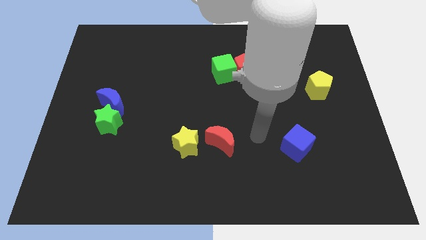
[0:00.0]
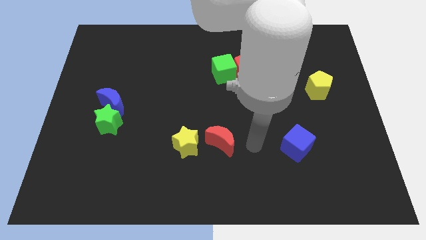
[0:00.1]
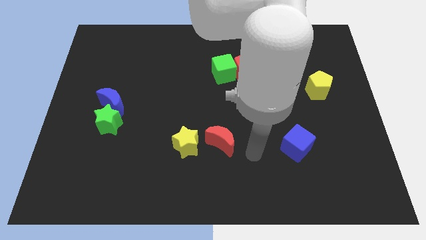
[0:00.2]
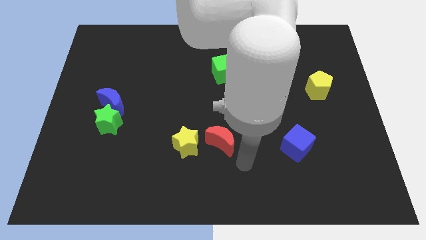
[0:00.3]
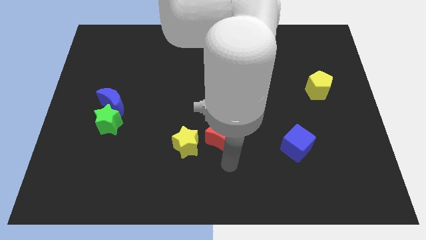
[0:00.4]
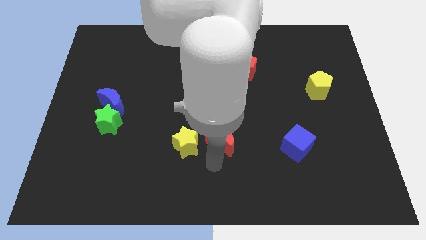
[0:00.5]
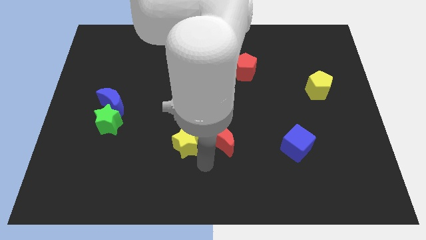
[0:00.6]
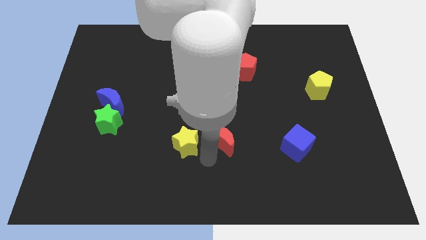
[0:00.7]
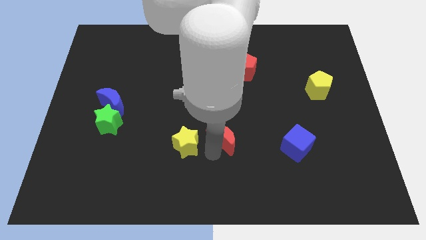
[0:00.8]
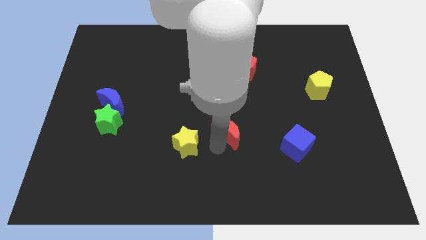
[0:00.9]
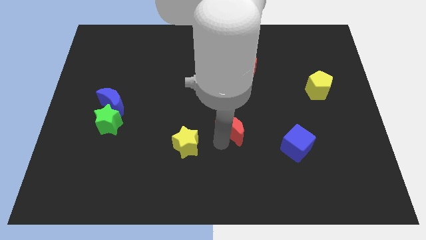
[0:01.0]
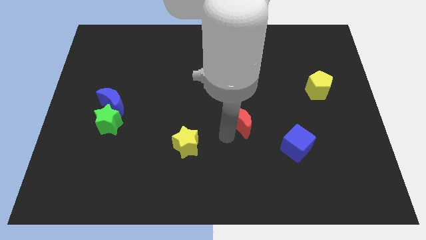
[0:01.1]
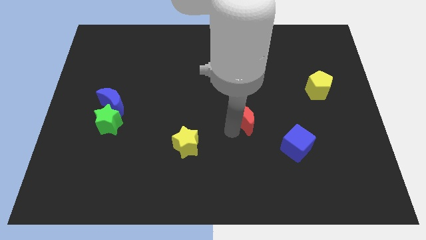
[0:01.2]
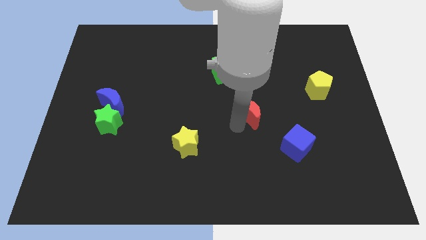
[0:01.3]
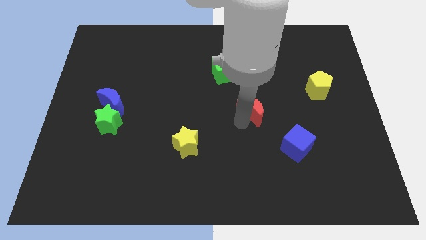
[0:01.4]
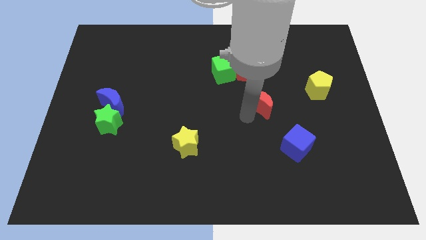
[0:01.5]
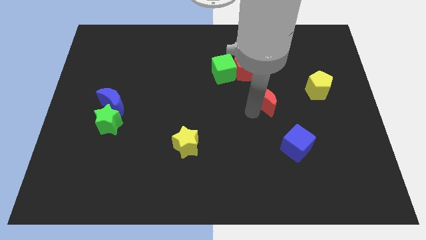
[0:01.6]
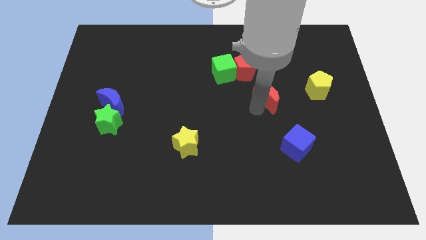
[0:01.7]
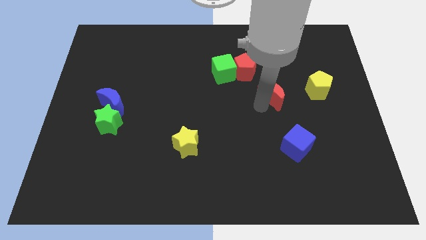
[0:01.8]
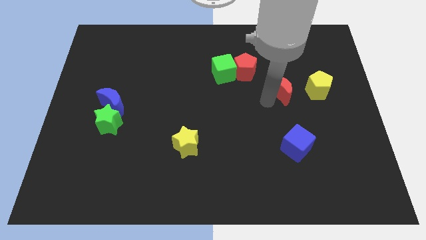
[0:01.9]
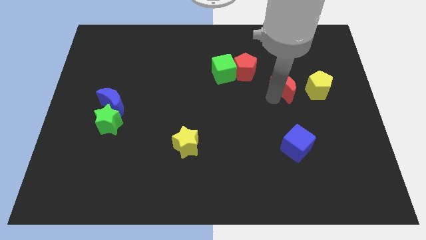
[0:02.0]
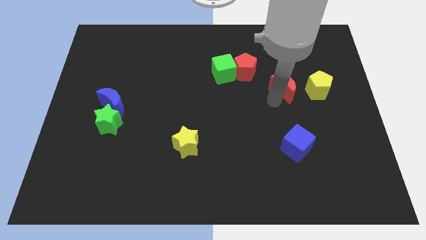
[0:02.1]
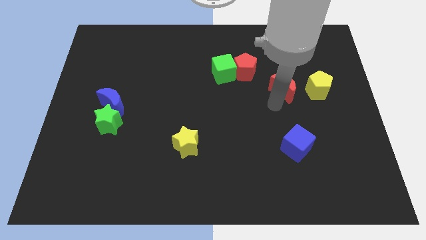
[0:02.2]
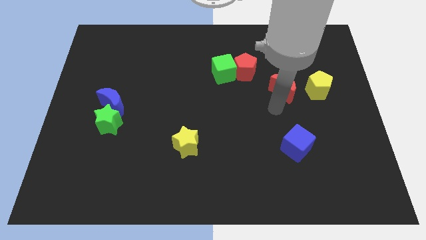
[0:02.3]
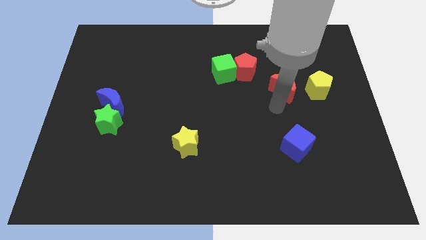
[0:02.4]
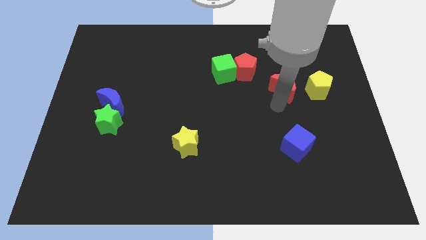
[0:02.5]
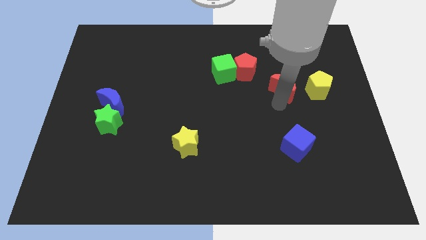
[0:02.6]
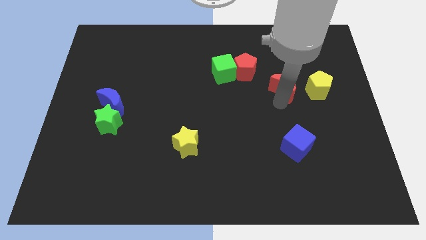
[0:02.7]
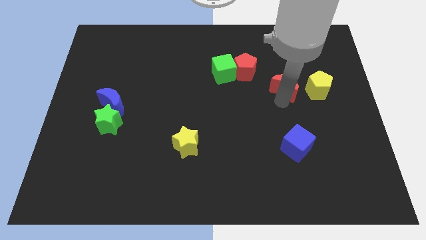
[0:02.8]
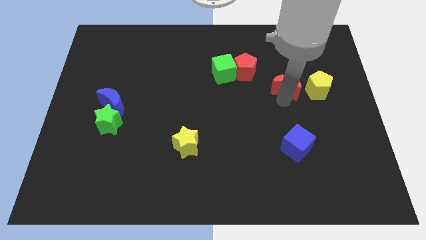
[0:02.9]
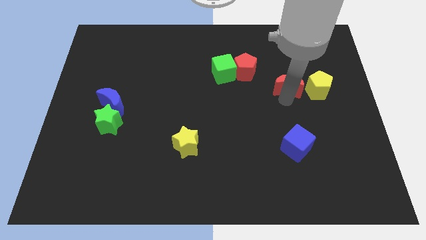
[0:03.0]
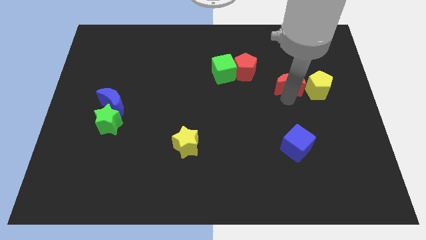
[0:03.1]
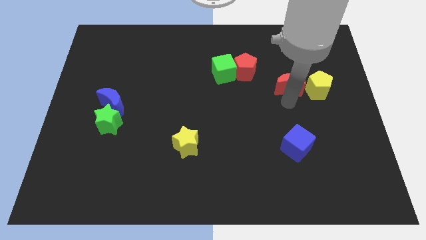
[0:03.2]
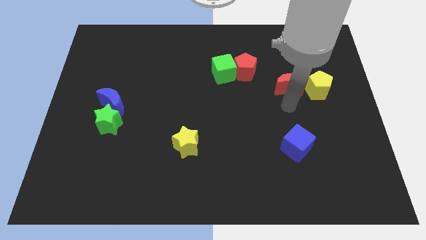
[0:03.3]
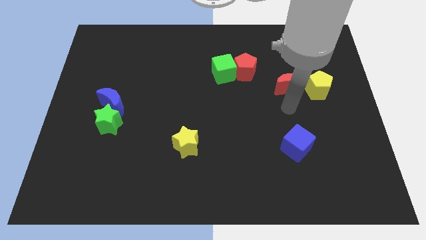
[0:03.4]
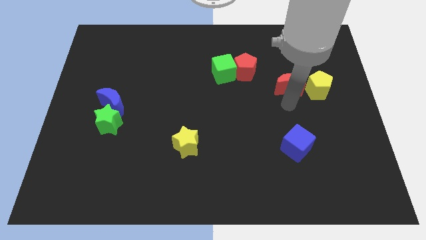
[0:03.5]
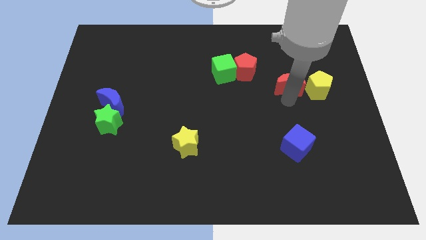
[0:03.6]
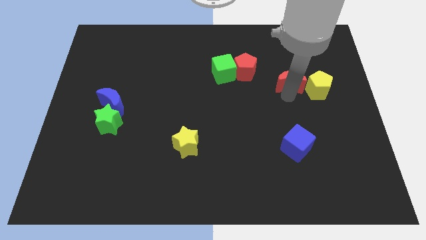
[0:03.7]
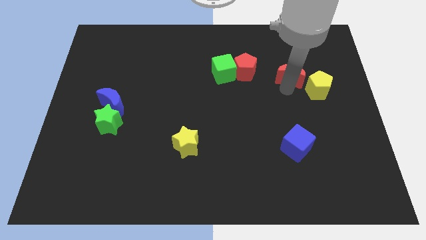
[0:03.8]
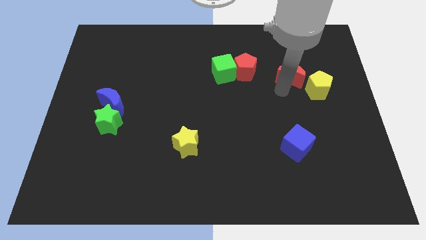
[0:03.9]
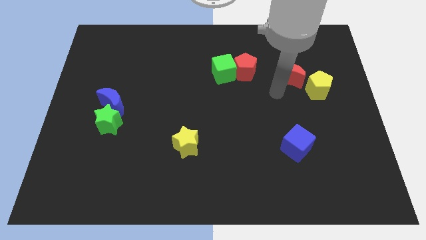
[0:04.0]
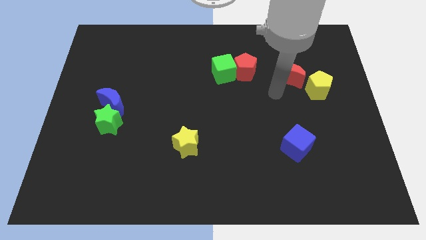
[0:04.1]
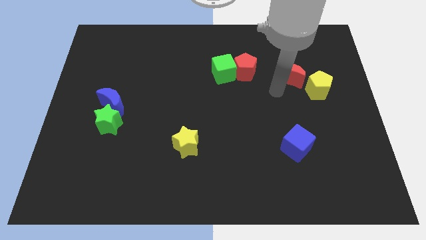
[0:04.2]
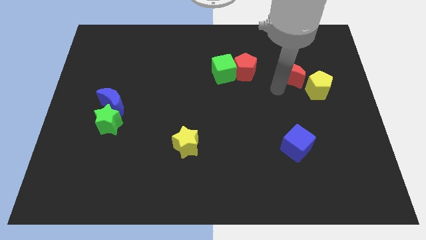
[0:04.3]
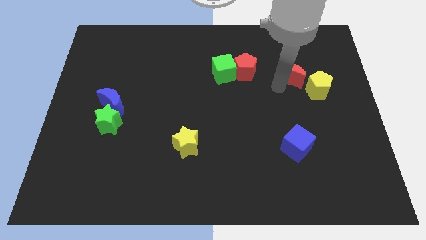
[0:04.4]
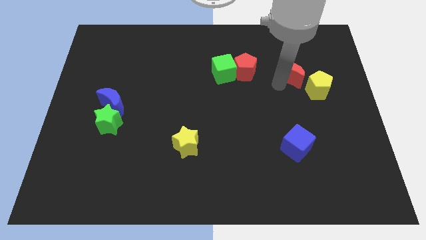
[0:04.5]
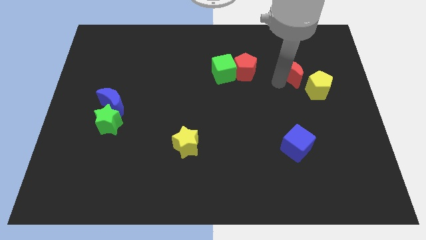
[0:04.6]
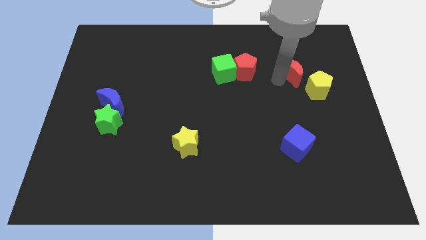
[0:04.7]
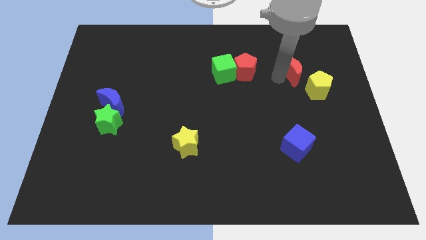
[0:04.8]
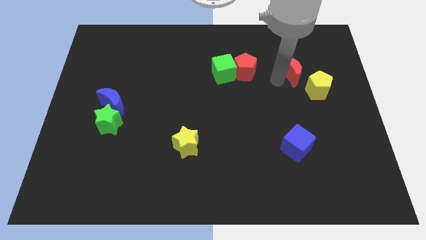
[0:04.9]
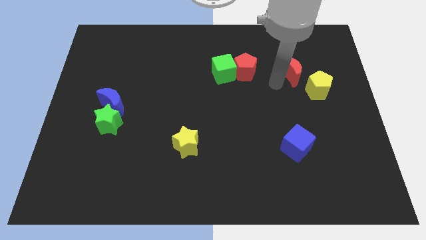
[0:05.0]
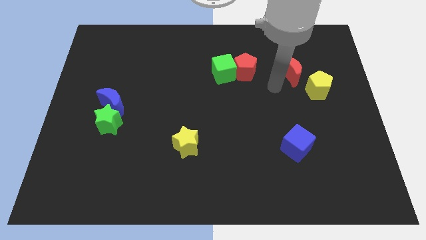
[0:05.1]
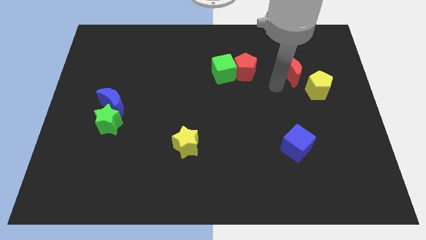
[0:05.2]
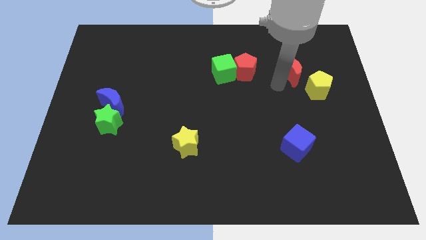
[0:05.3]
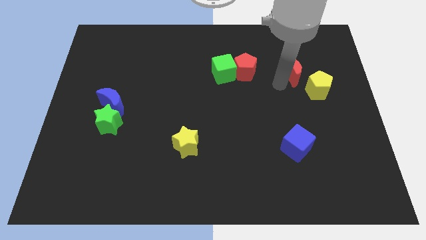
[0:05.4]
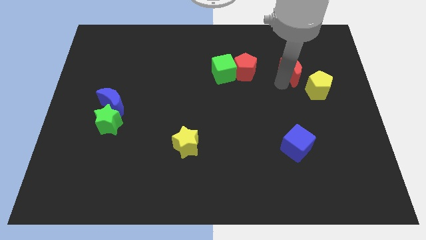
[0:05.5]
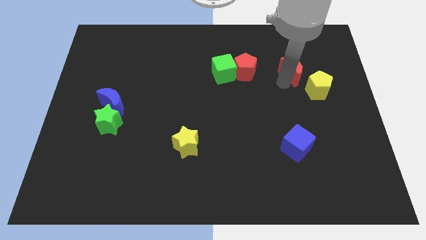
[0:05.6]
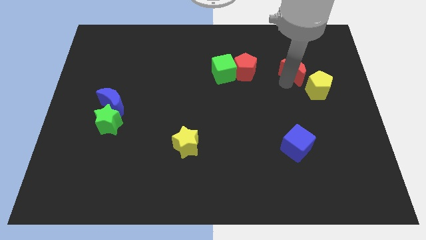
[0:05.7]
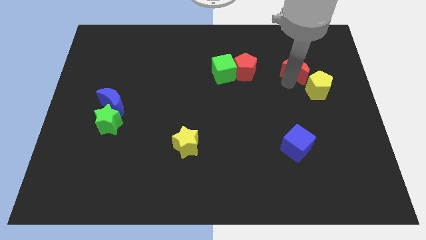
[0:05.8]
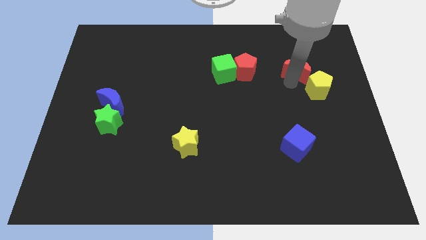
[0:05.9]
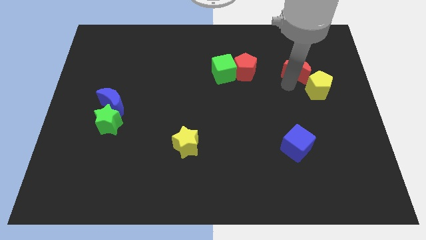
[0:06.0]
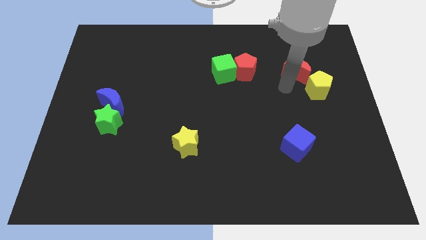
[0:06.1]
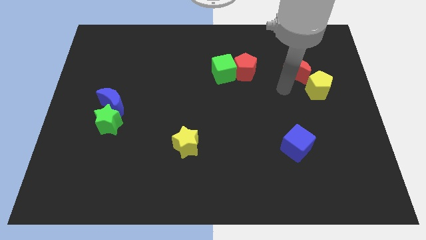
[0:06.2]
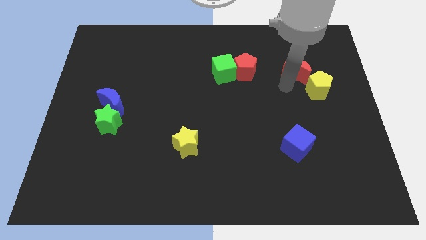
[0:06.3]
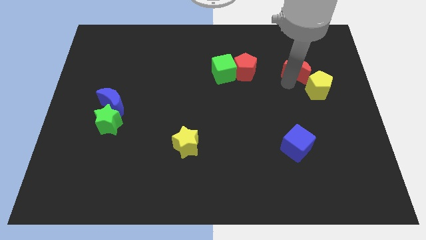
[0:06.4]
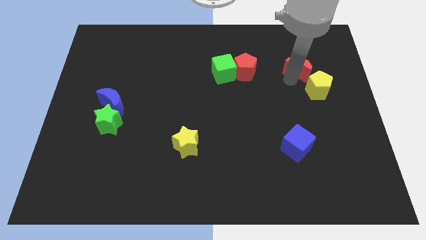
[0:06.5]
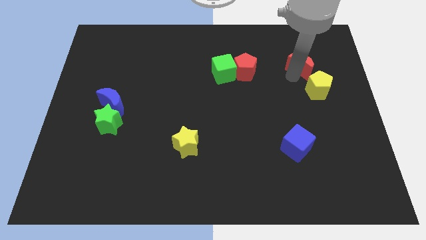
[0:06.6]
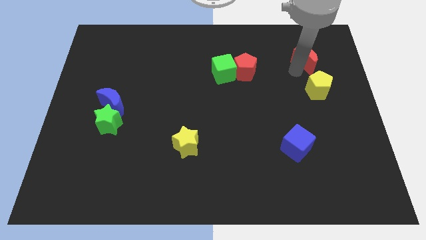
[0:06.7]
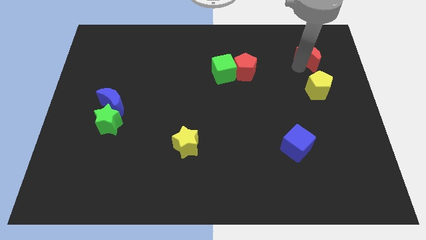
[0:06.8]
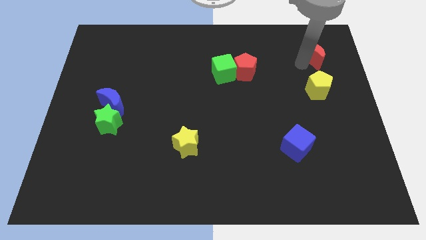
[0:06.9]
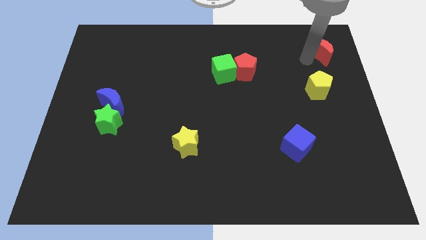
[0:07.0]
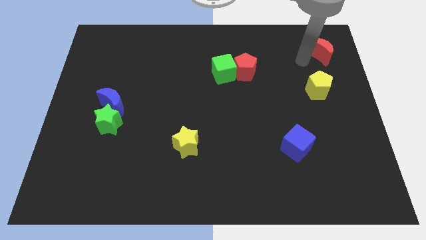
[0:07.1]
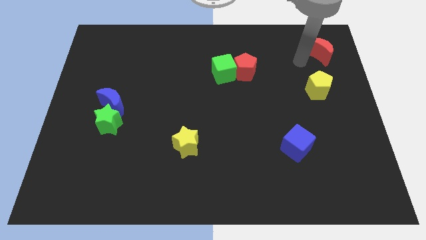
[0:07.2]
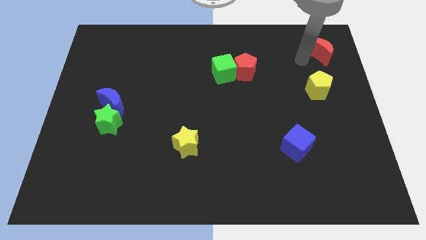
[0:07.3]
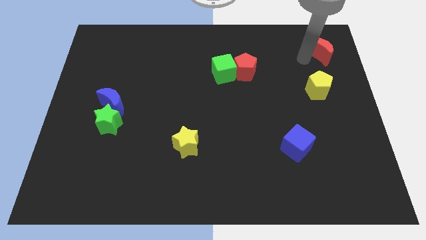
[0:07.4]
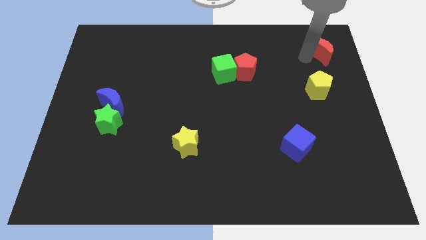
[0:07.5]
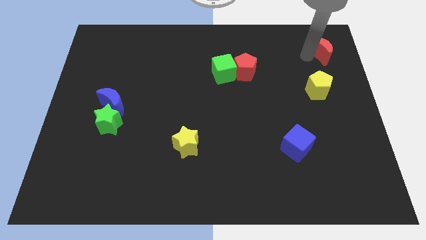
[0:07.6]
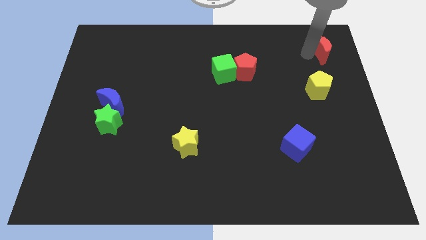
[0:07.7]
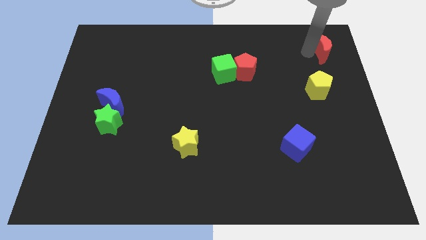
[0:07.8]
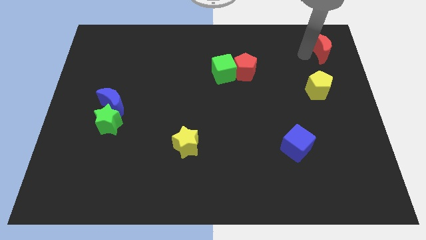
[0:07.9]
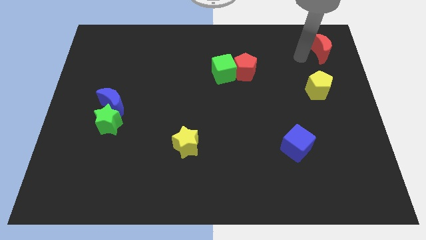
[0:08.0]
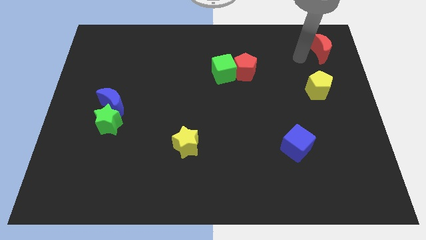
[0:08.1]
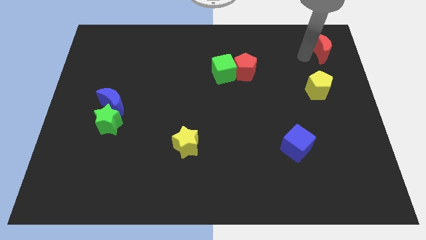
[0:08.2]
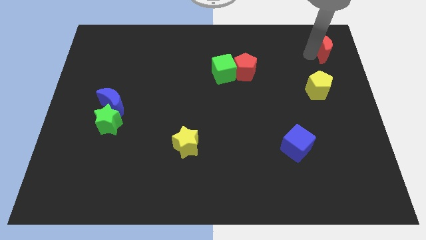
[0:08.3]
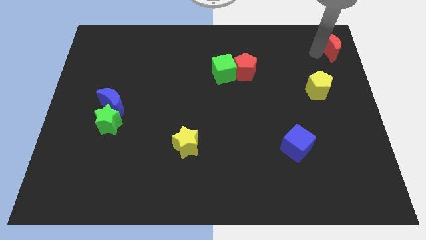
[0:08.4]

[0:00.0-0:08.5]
slide the red moon to the top right corner
